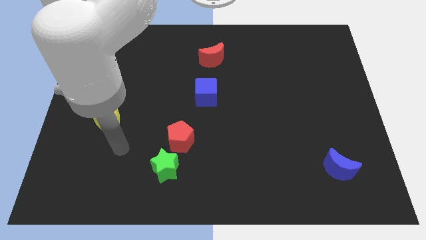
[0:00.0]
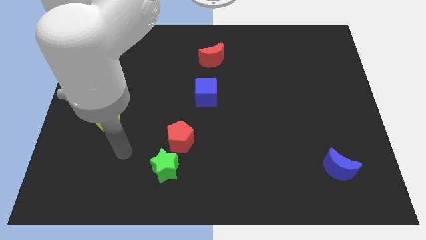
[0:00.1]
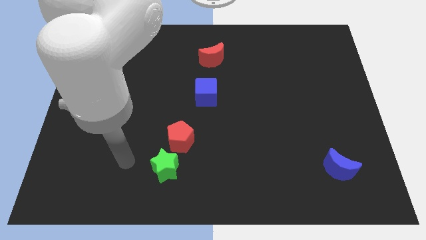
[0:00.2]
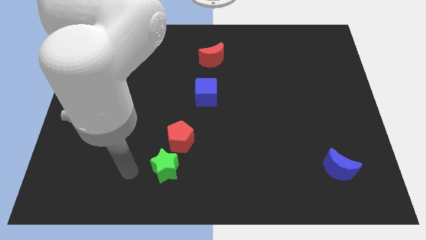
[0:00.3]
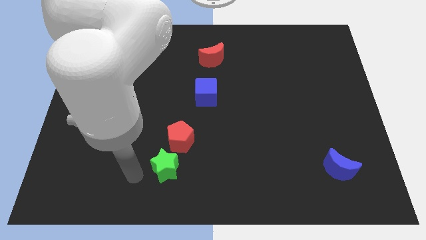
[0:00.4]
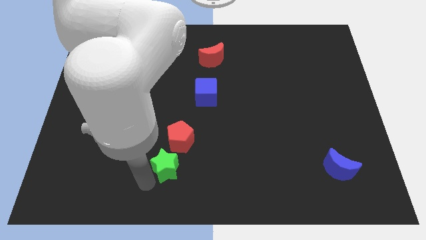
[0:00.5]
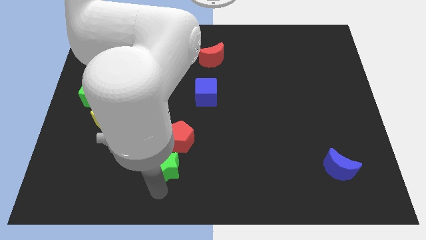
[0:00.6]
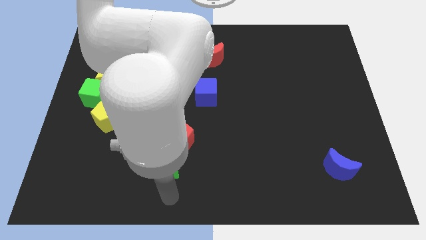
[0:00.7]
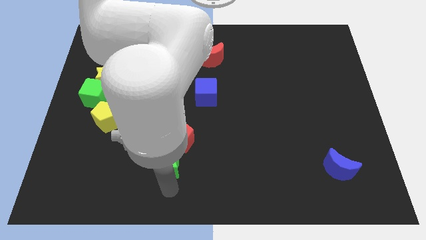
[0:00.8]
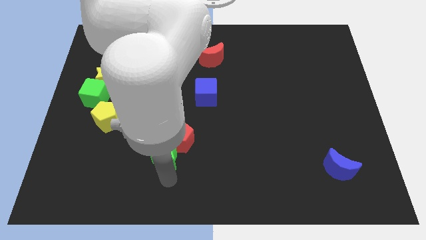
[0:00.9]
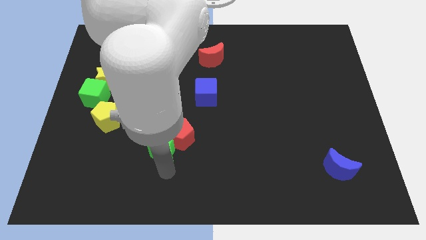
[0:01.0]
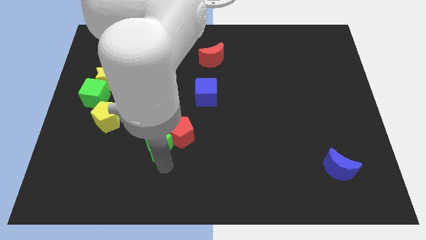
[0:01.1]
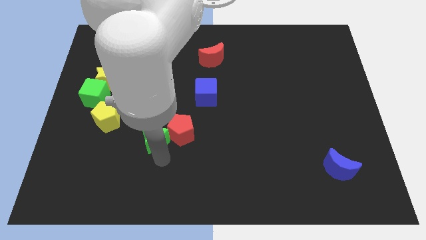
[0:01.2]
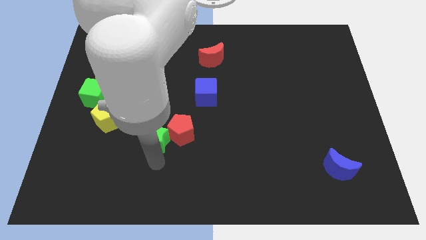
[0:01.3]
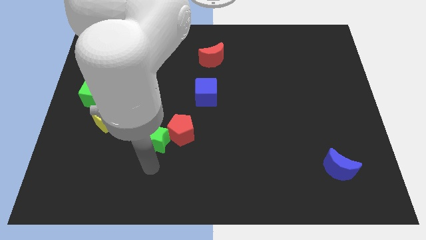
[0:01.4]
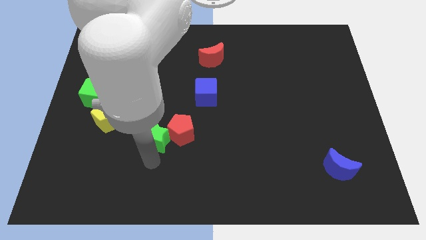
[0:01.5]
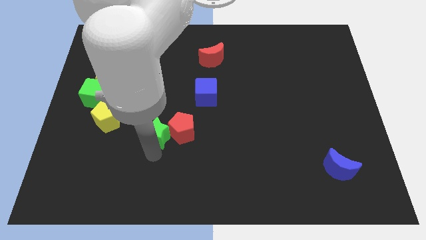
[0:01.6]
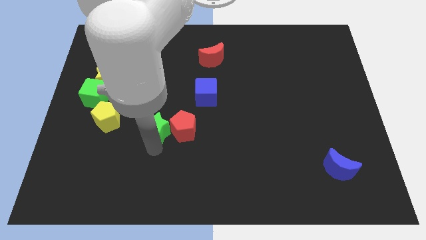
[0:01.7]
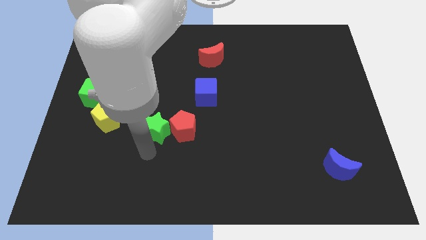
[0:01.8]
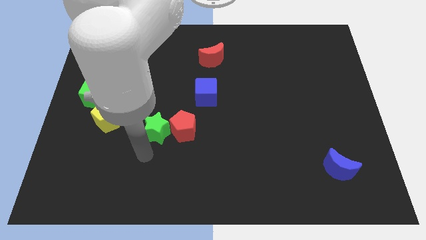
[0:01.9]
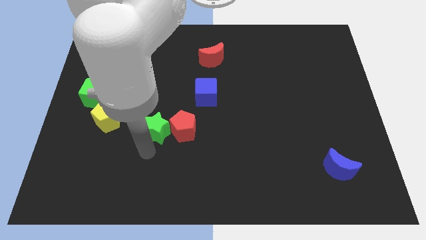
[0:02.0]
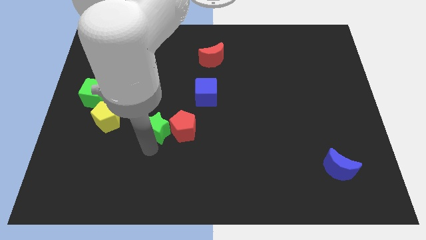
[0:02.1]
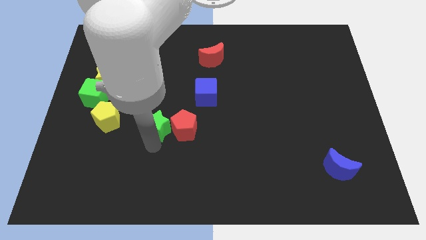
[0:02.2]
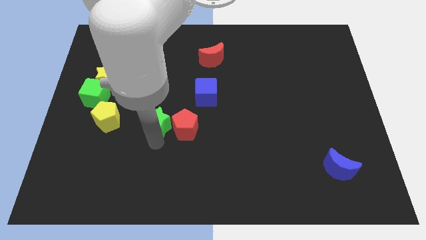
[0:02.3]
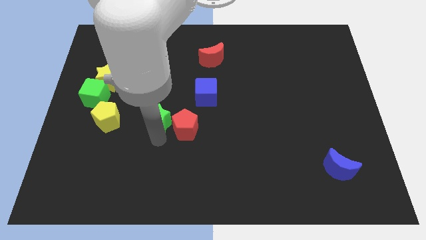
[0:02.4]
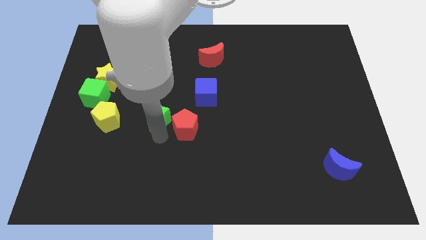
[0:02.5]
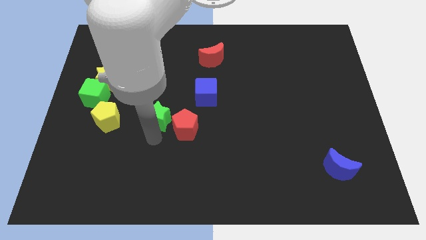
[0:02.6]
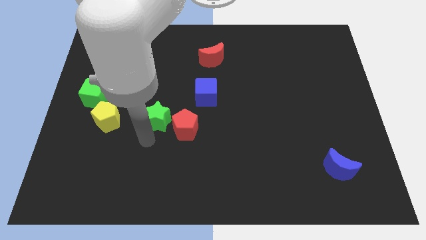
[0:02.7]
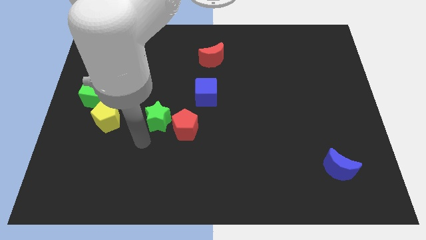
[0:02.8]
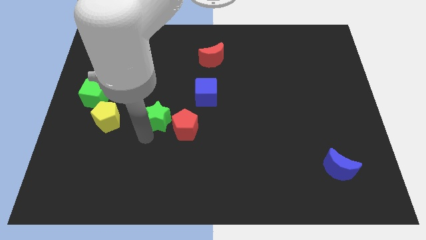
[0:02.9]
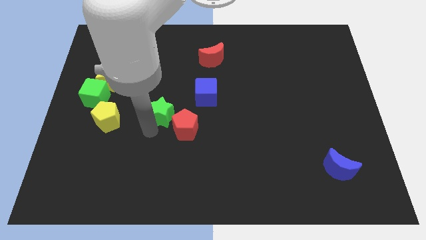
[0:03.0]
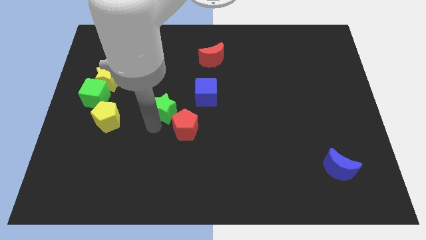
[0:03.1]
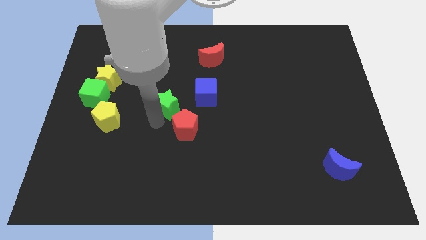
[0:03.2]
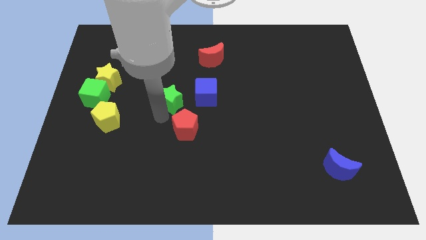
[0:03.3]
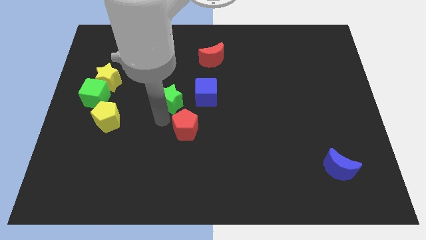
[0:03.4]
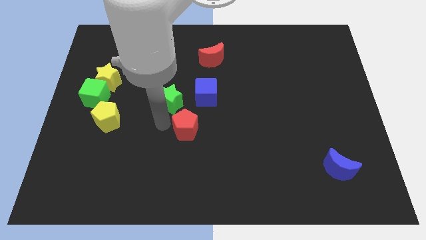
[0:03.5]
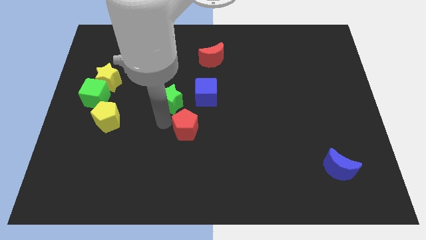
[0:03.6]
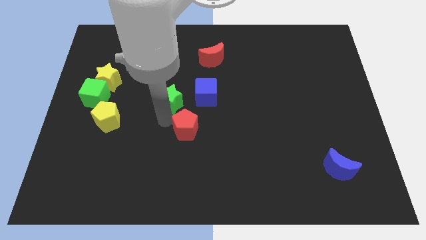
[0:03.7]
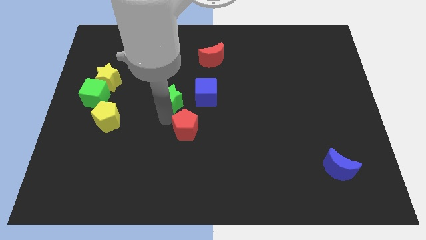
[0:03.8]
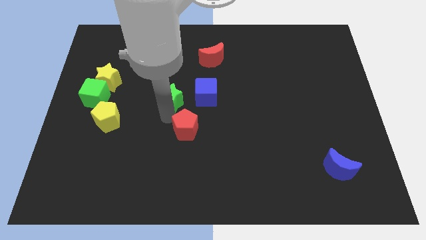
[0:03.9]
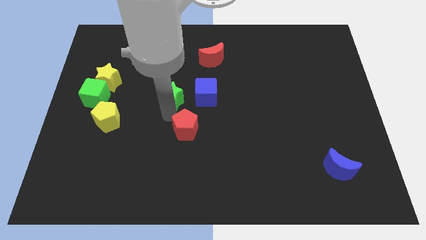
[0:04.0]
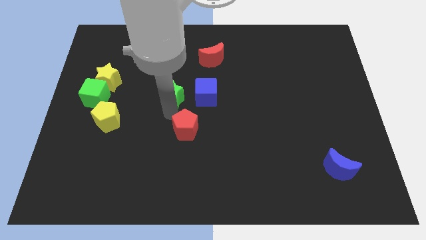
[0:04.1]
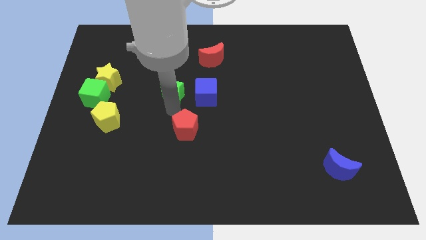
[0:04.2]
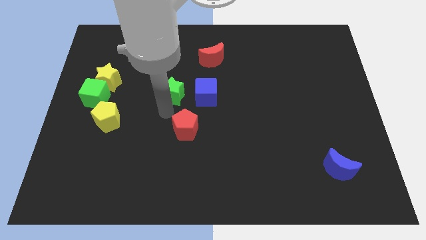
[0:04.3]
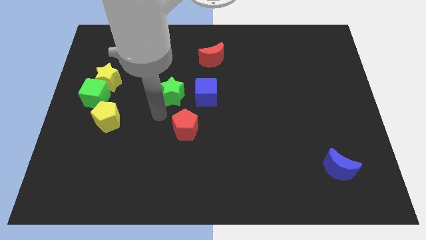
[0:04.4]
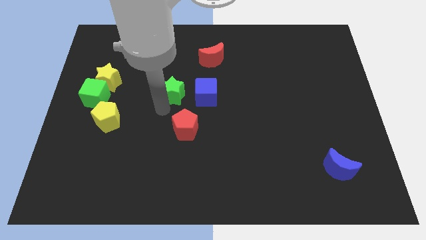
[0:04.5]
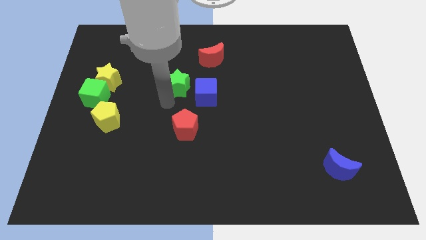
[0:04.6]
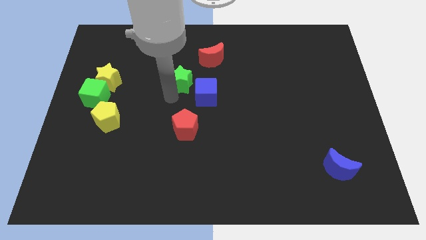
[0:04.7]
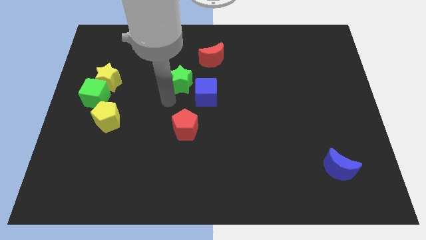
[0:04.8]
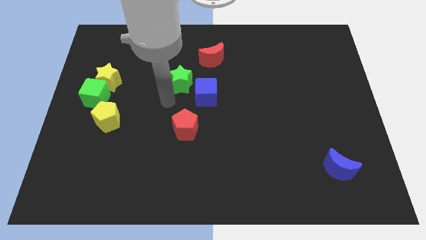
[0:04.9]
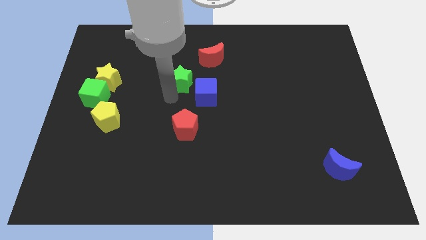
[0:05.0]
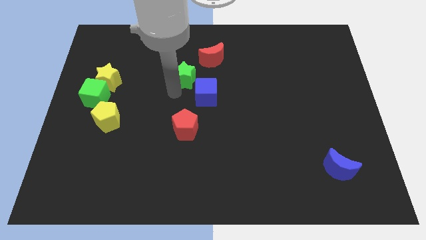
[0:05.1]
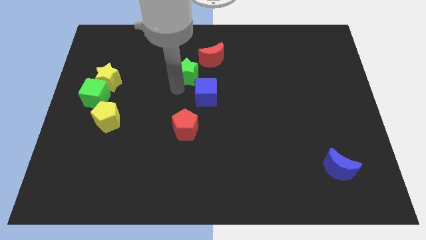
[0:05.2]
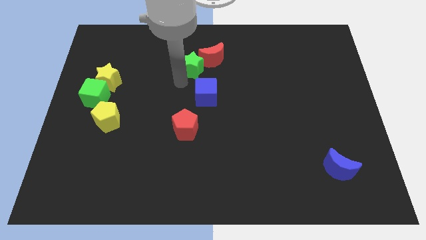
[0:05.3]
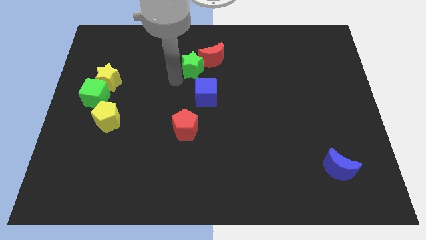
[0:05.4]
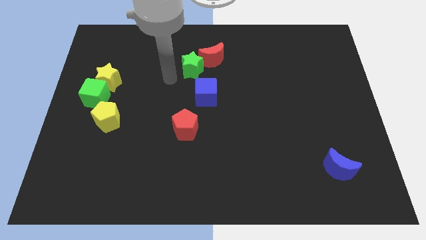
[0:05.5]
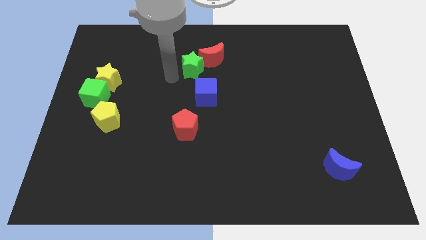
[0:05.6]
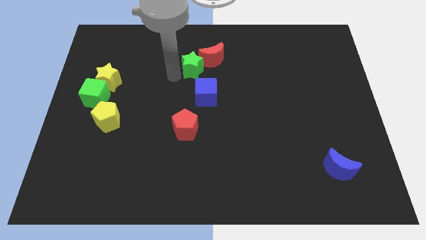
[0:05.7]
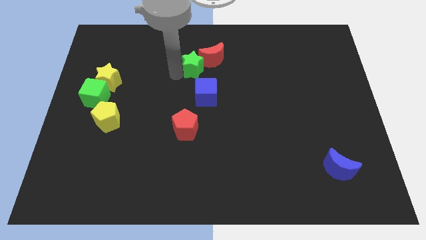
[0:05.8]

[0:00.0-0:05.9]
put the green star to the red moon
